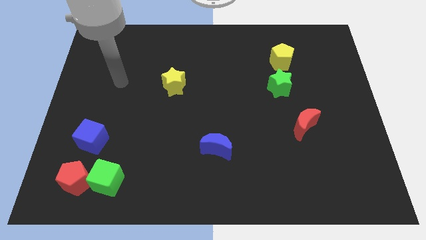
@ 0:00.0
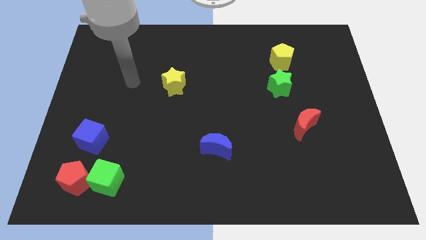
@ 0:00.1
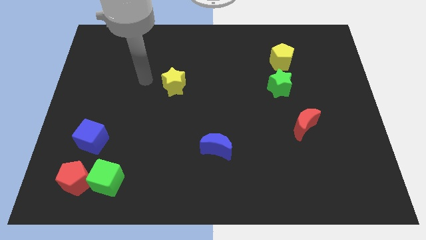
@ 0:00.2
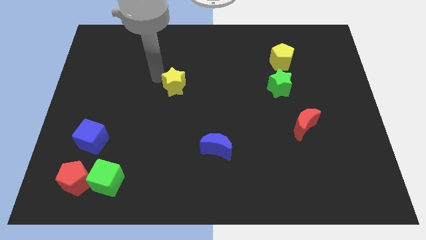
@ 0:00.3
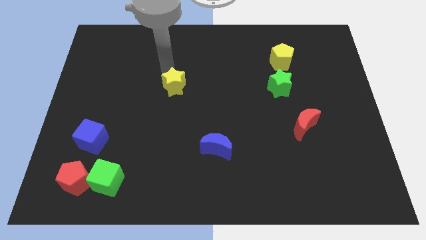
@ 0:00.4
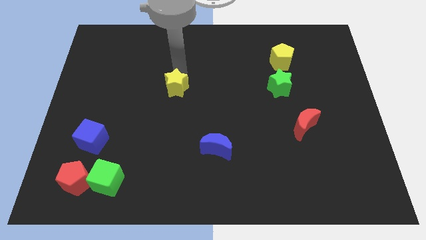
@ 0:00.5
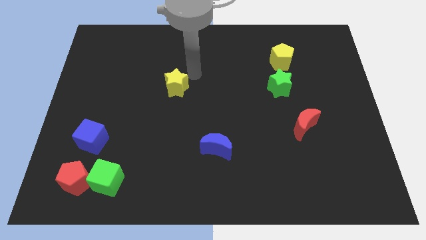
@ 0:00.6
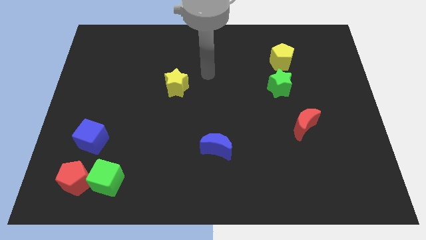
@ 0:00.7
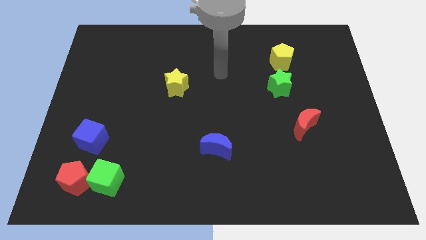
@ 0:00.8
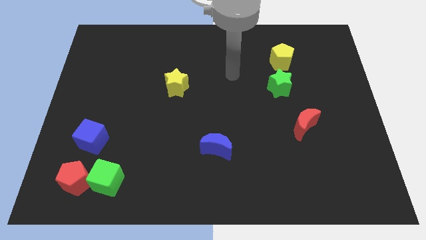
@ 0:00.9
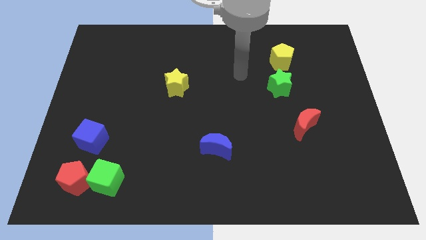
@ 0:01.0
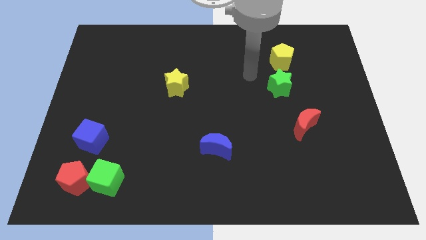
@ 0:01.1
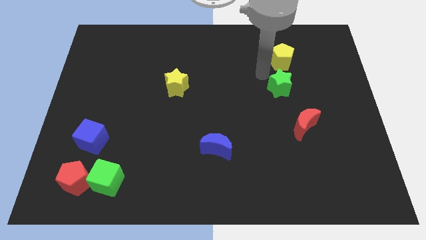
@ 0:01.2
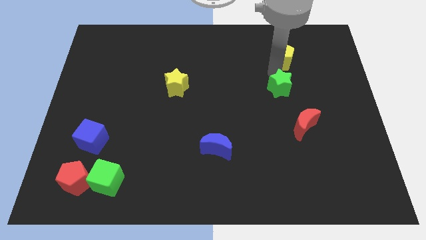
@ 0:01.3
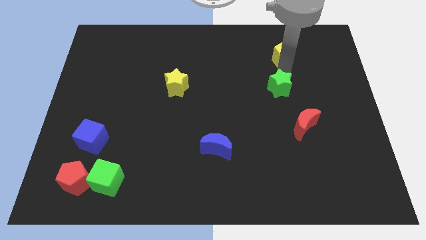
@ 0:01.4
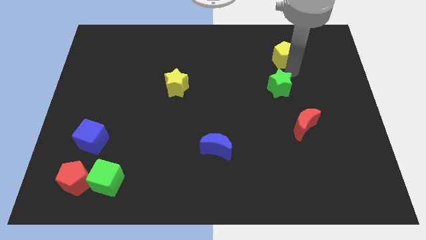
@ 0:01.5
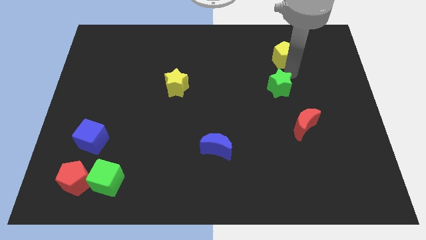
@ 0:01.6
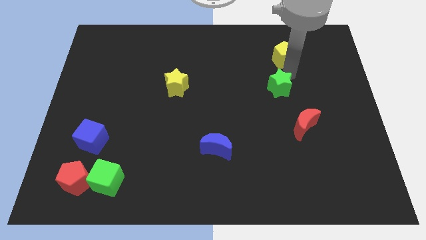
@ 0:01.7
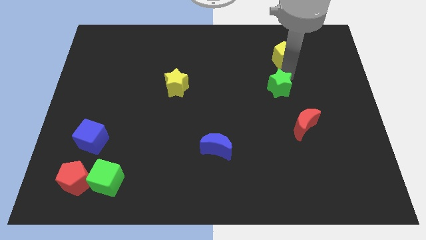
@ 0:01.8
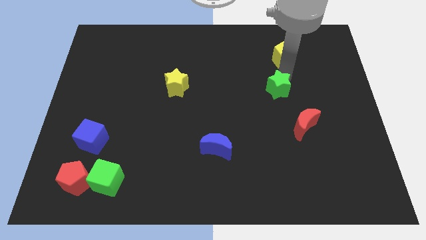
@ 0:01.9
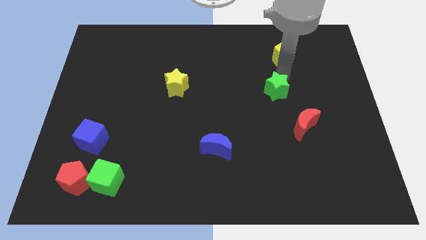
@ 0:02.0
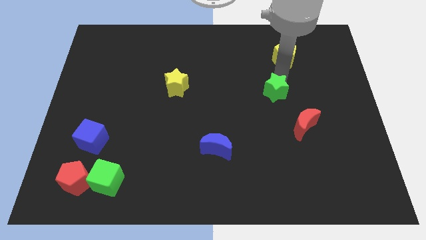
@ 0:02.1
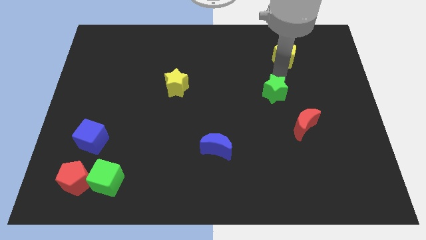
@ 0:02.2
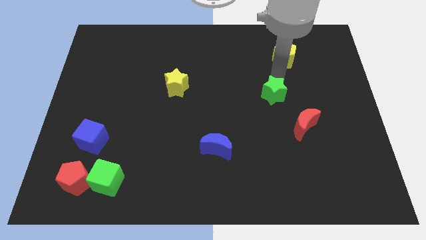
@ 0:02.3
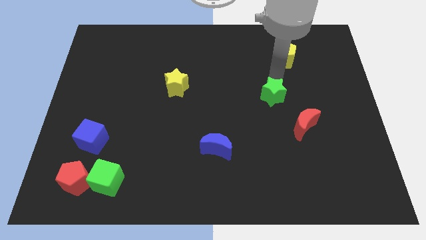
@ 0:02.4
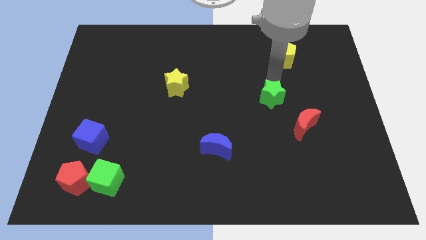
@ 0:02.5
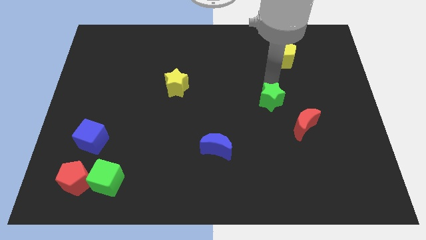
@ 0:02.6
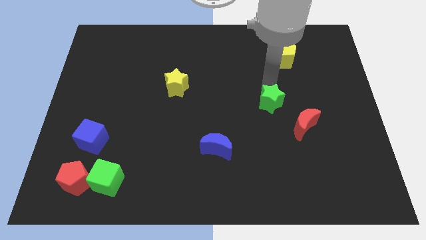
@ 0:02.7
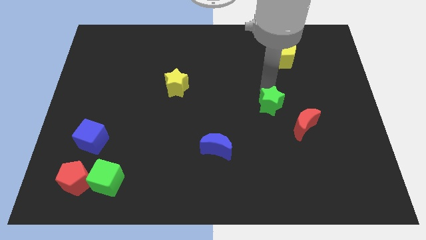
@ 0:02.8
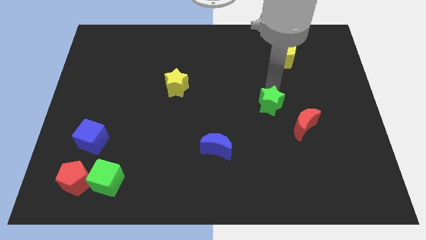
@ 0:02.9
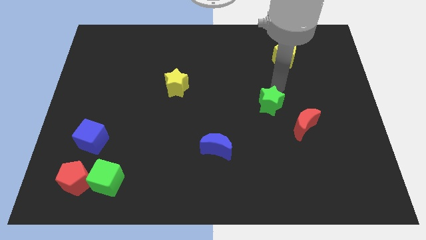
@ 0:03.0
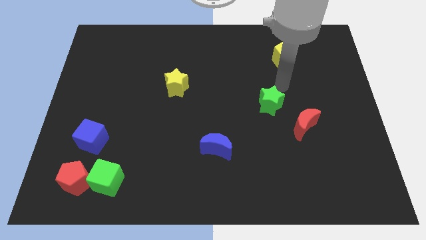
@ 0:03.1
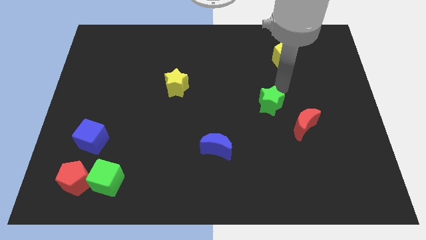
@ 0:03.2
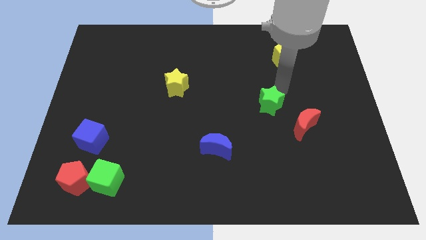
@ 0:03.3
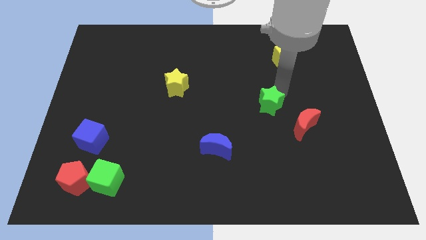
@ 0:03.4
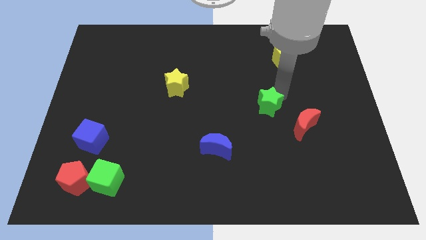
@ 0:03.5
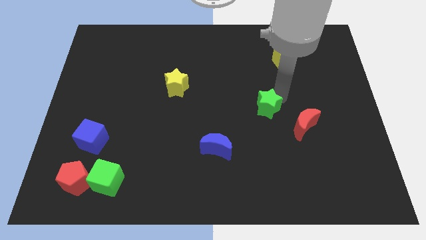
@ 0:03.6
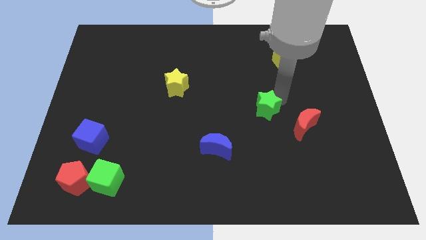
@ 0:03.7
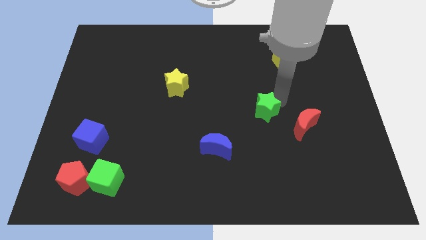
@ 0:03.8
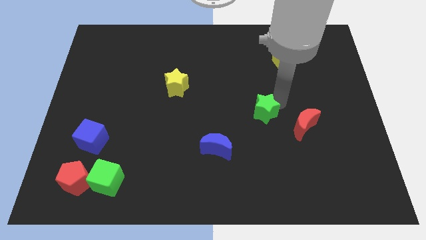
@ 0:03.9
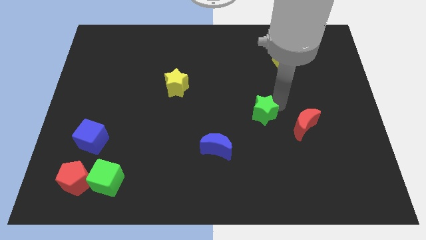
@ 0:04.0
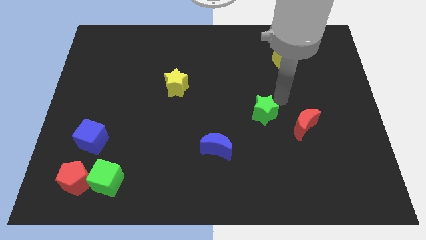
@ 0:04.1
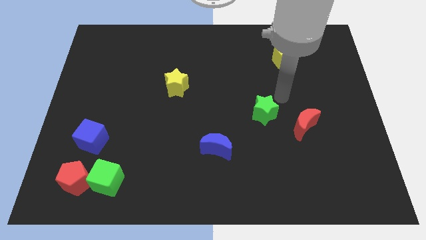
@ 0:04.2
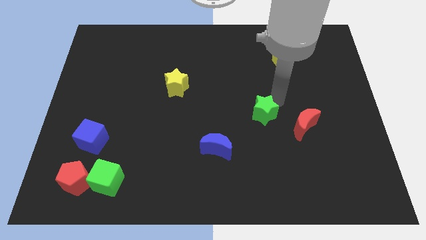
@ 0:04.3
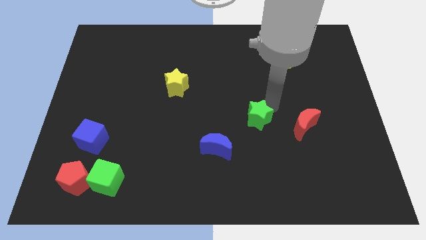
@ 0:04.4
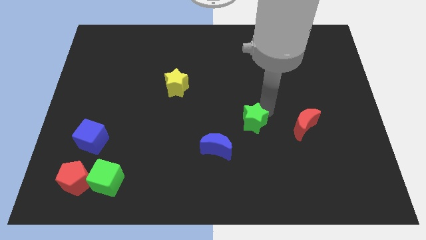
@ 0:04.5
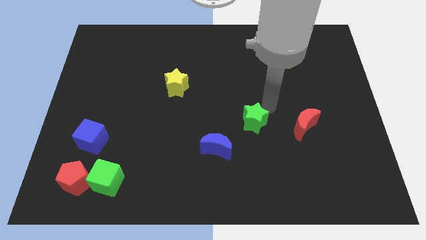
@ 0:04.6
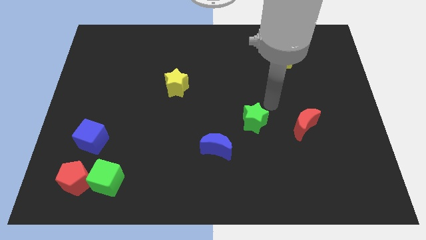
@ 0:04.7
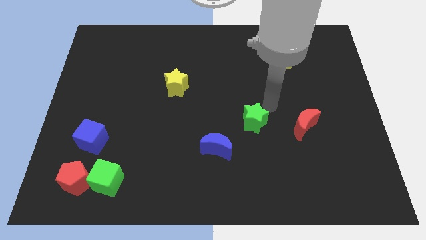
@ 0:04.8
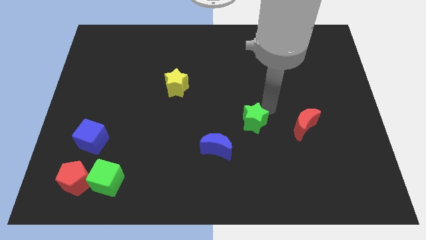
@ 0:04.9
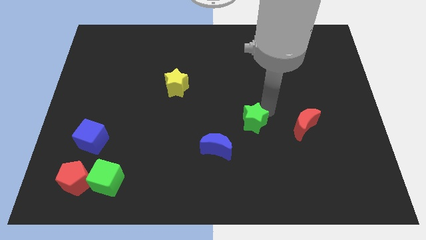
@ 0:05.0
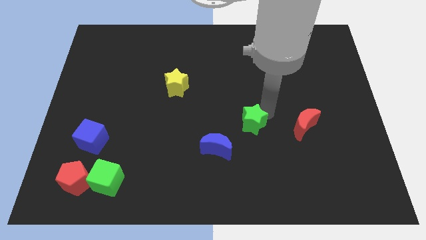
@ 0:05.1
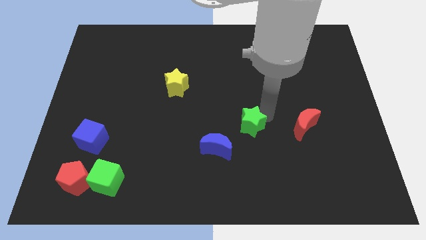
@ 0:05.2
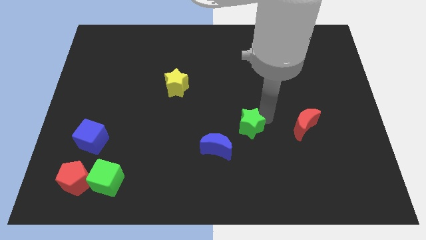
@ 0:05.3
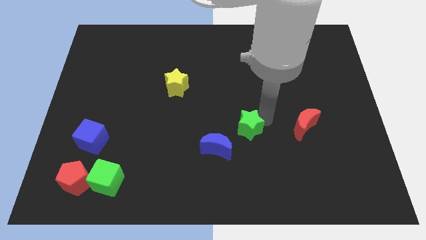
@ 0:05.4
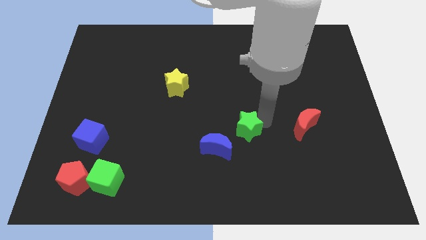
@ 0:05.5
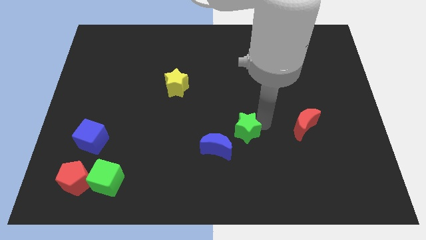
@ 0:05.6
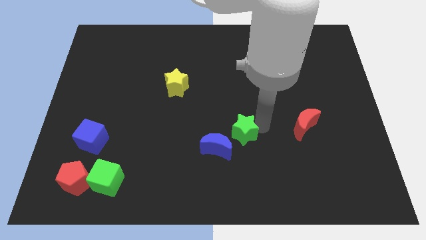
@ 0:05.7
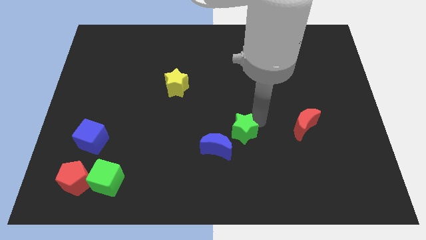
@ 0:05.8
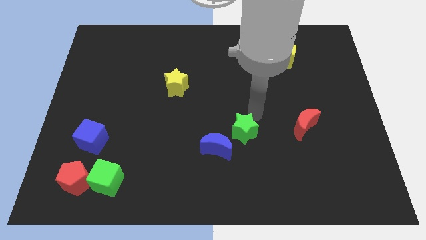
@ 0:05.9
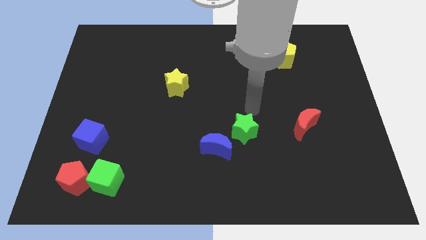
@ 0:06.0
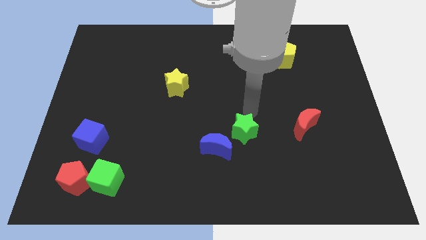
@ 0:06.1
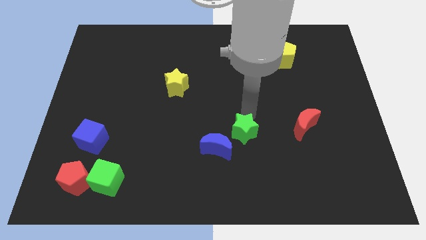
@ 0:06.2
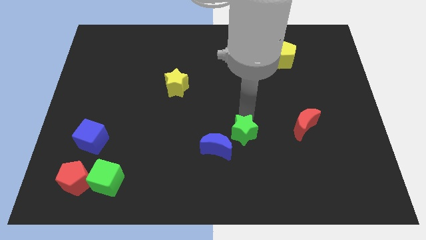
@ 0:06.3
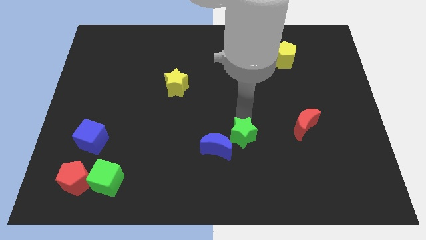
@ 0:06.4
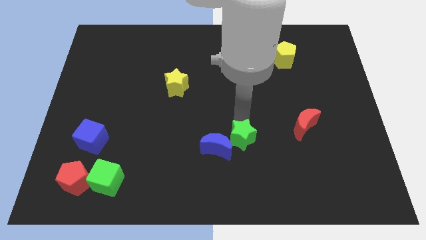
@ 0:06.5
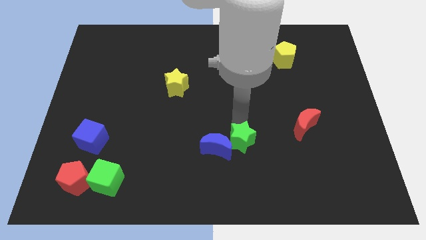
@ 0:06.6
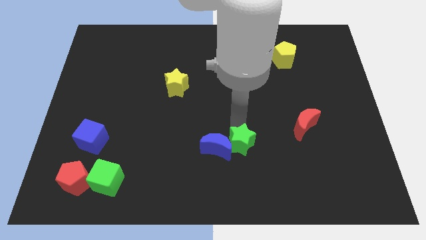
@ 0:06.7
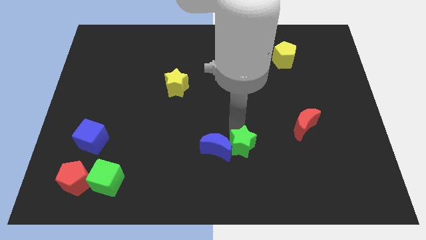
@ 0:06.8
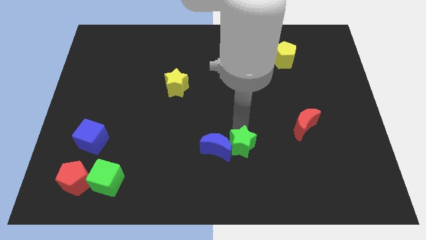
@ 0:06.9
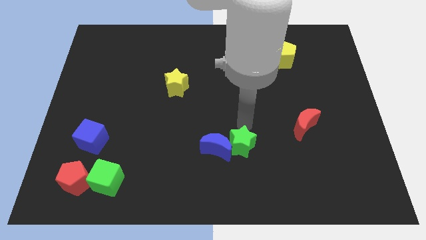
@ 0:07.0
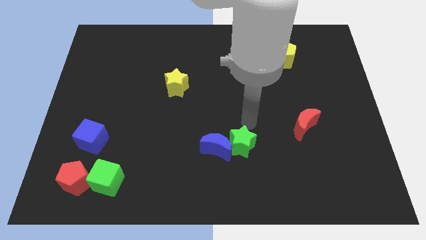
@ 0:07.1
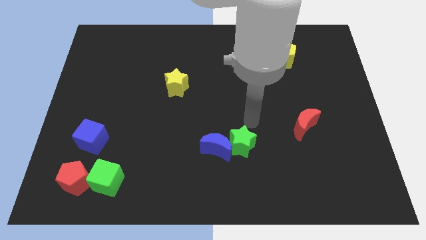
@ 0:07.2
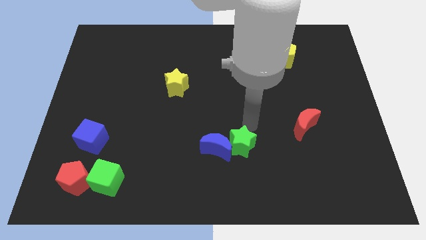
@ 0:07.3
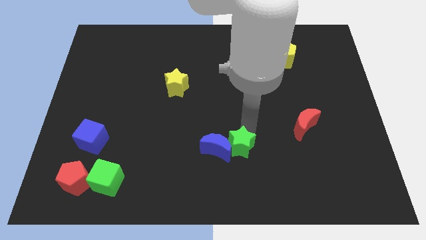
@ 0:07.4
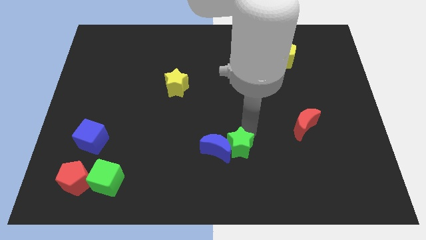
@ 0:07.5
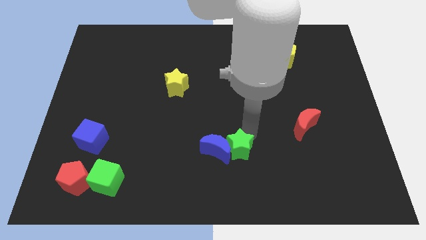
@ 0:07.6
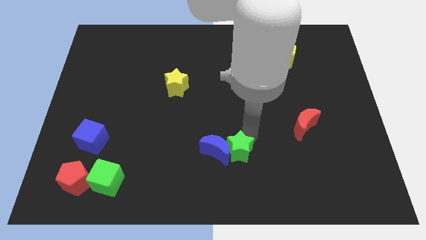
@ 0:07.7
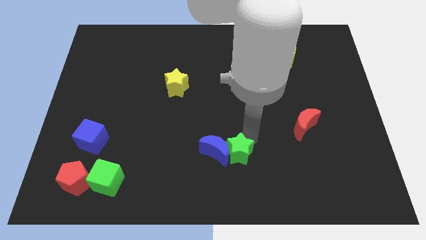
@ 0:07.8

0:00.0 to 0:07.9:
move the green star down and left diagonally
